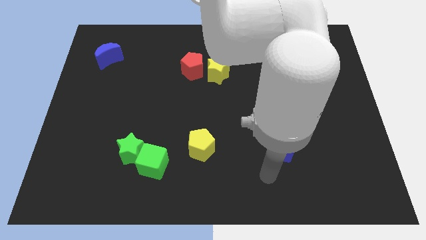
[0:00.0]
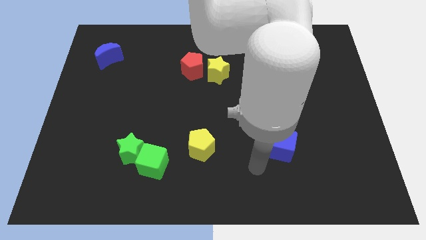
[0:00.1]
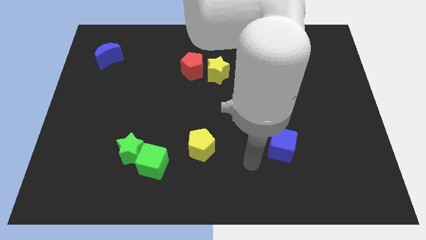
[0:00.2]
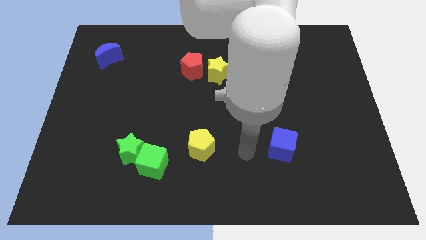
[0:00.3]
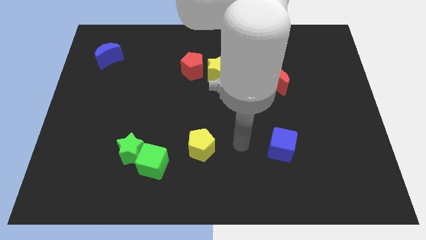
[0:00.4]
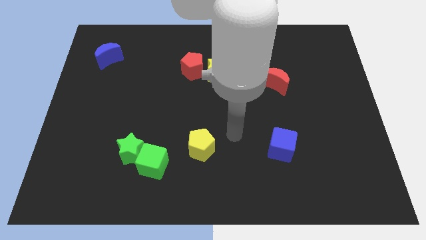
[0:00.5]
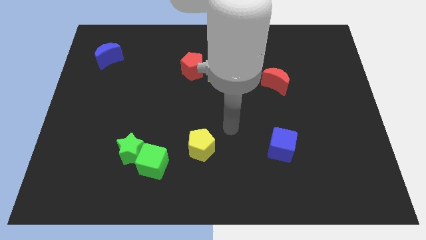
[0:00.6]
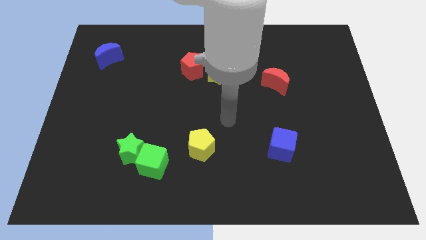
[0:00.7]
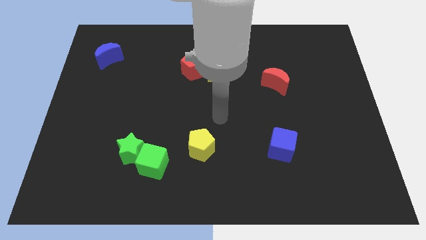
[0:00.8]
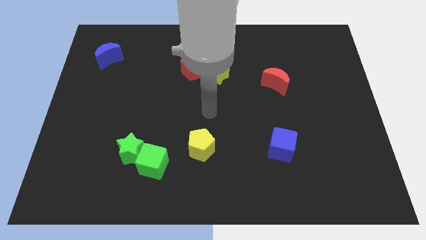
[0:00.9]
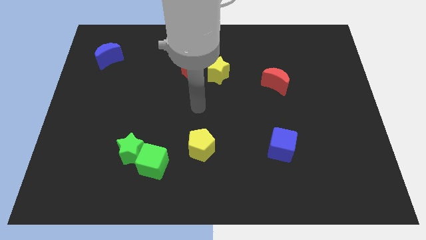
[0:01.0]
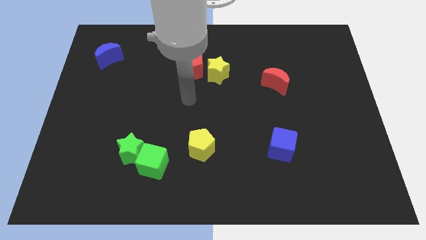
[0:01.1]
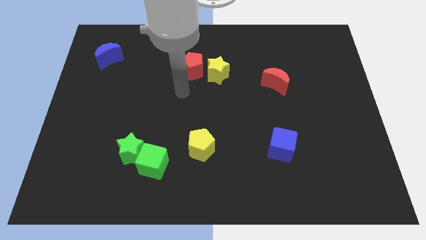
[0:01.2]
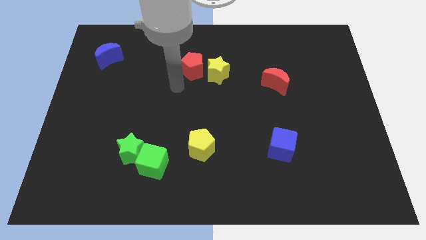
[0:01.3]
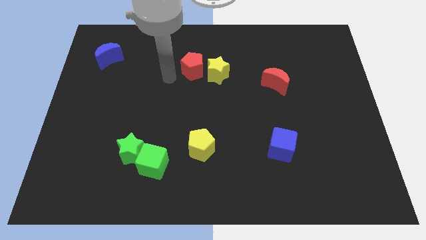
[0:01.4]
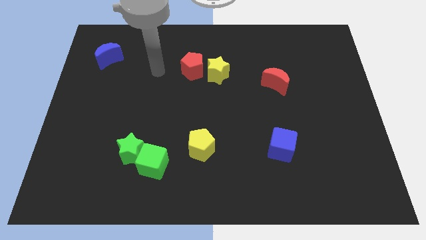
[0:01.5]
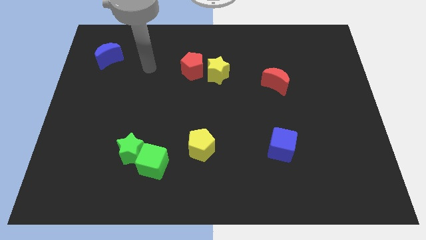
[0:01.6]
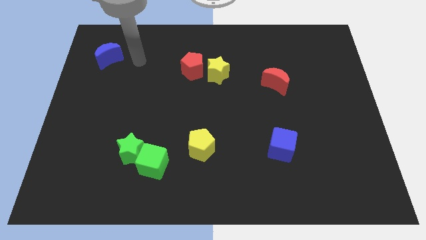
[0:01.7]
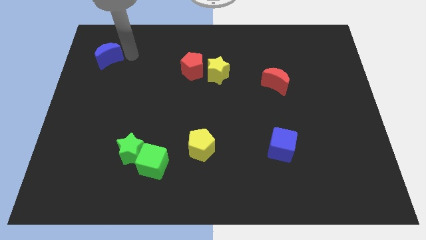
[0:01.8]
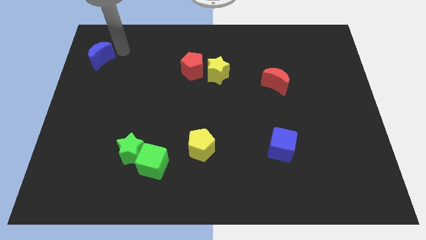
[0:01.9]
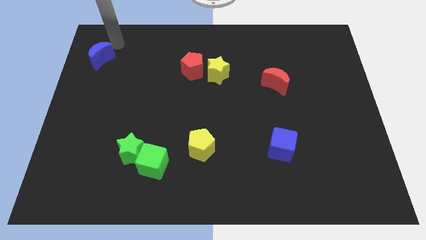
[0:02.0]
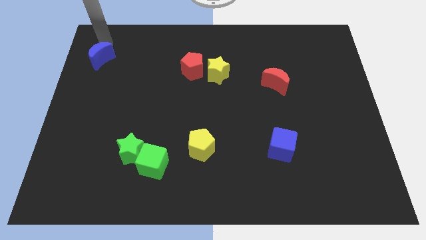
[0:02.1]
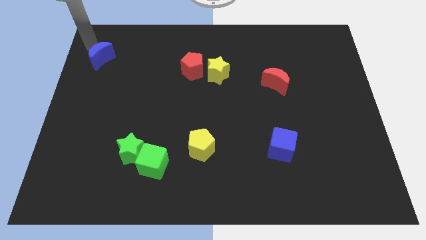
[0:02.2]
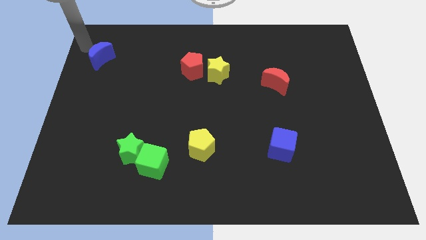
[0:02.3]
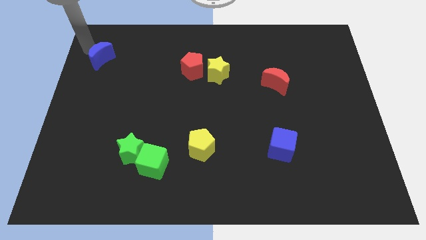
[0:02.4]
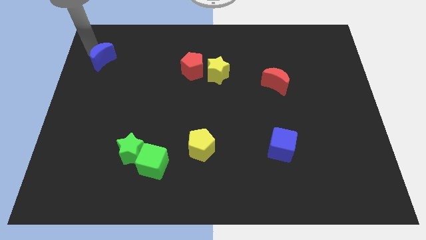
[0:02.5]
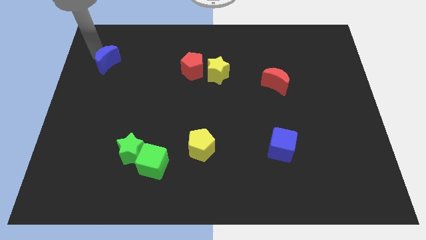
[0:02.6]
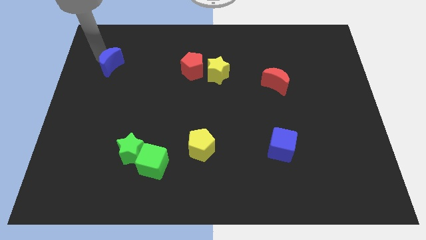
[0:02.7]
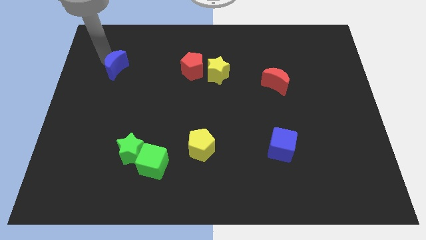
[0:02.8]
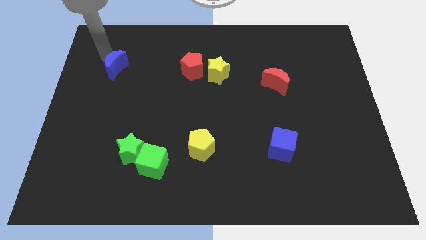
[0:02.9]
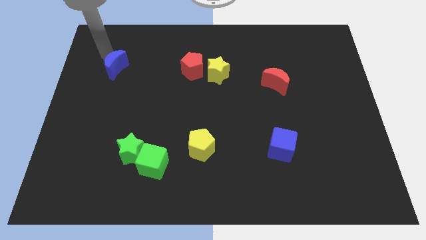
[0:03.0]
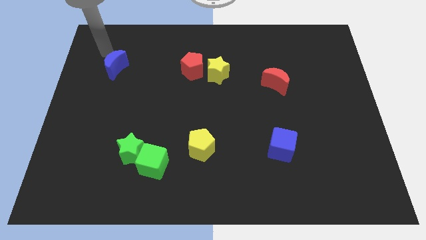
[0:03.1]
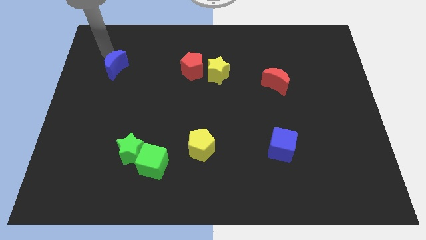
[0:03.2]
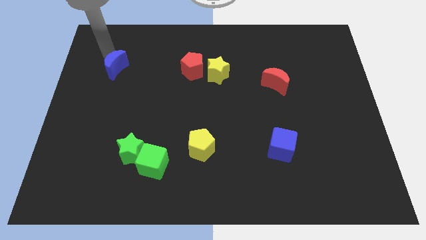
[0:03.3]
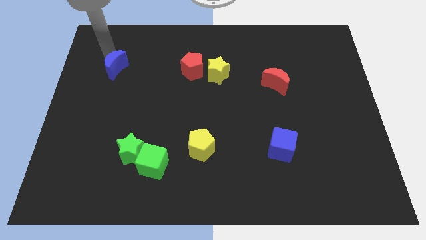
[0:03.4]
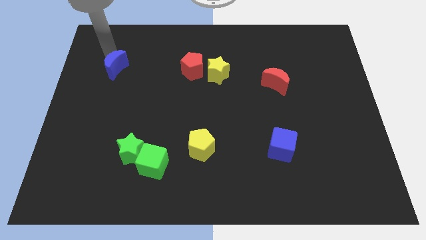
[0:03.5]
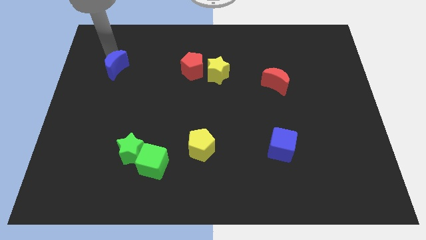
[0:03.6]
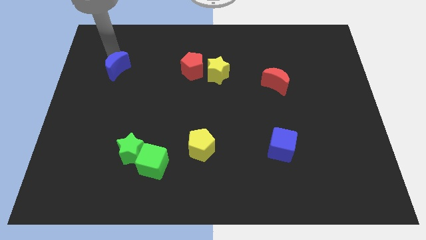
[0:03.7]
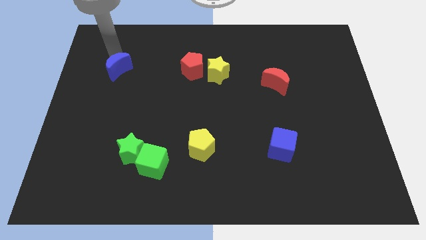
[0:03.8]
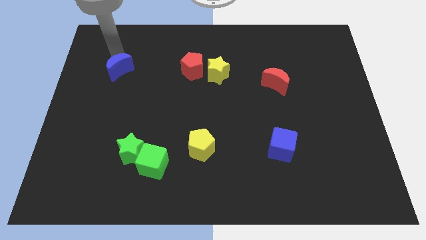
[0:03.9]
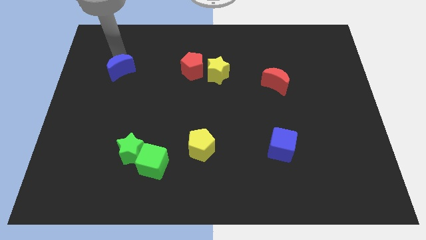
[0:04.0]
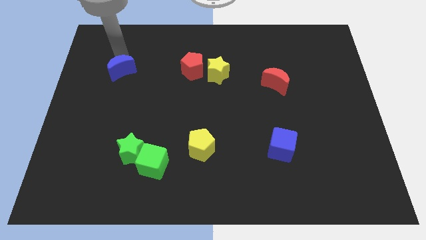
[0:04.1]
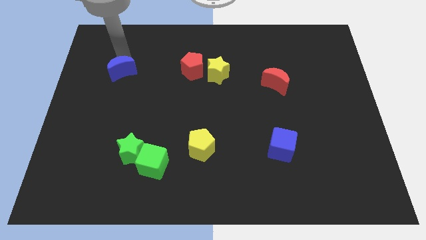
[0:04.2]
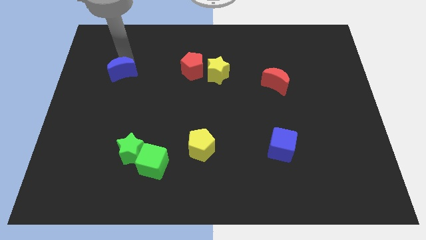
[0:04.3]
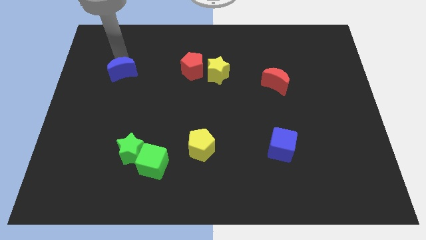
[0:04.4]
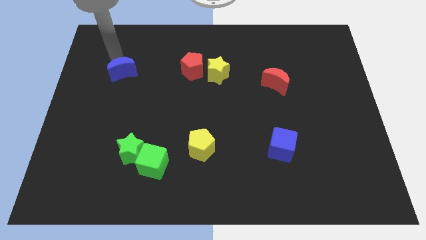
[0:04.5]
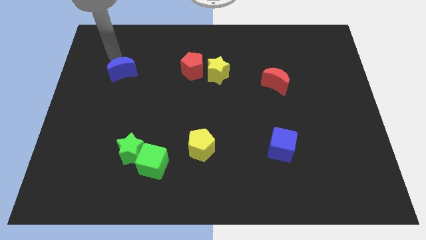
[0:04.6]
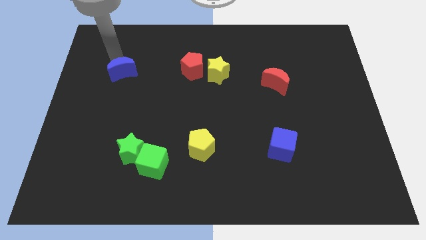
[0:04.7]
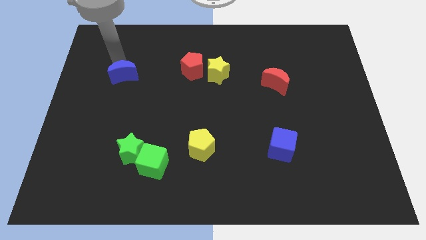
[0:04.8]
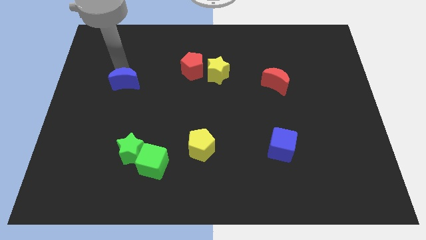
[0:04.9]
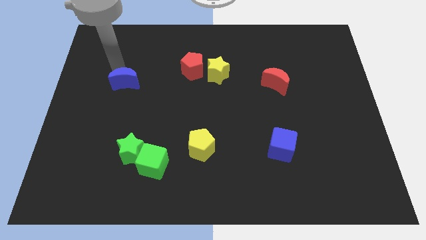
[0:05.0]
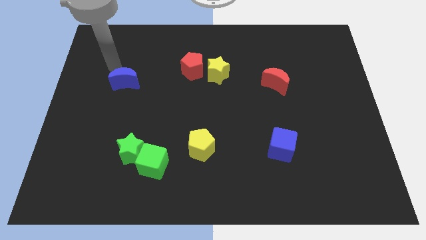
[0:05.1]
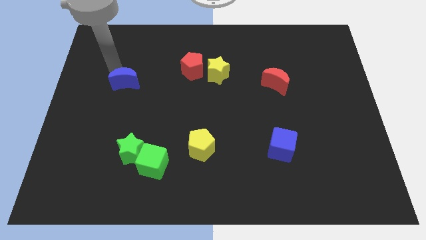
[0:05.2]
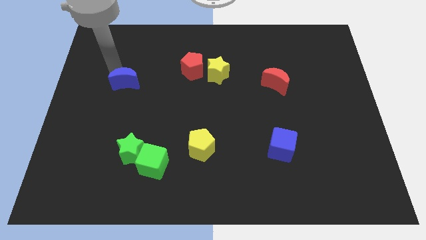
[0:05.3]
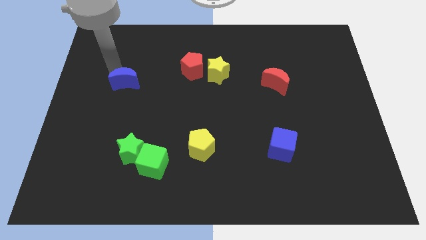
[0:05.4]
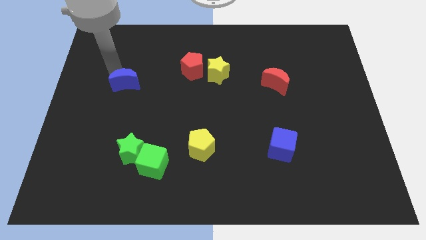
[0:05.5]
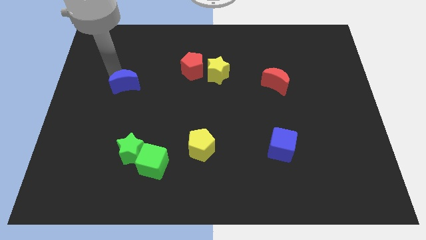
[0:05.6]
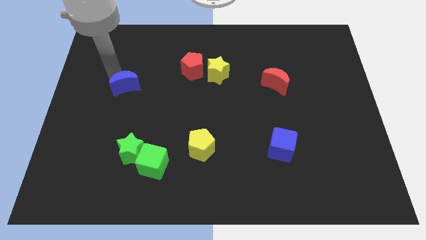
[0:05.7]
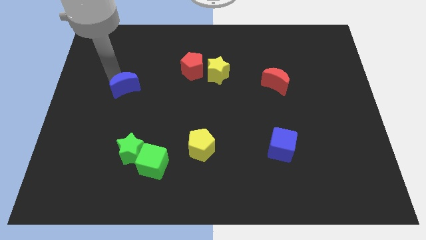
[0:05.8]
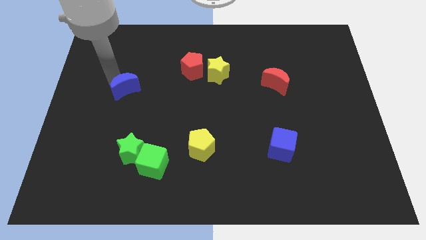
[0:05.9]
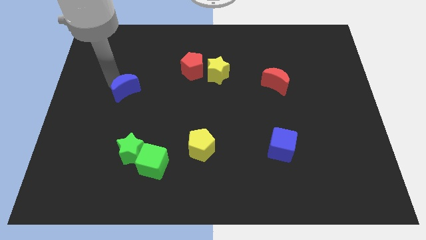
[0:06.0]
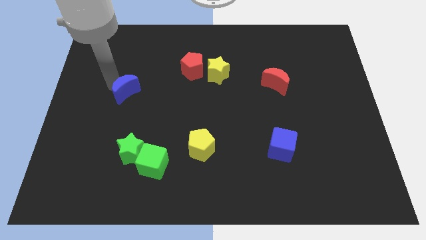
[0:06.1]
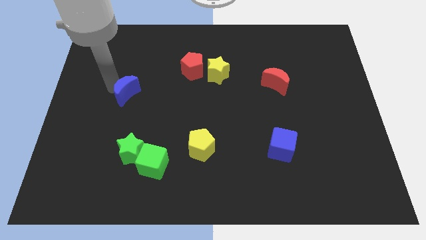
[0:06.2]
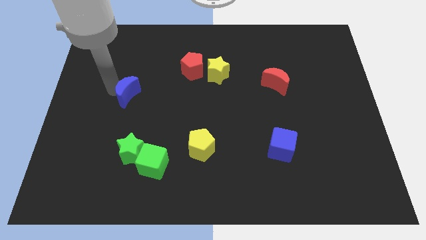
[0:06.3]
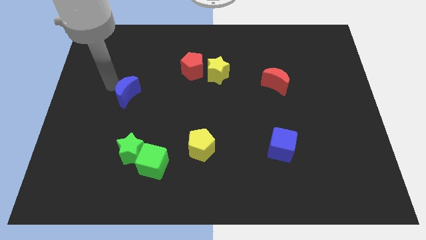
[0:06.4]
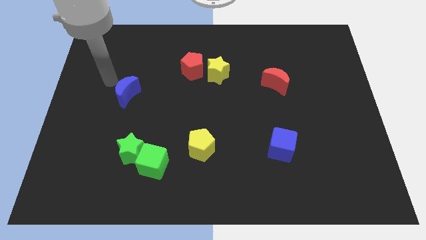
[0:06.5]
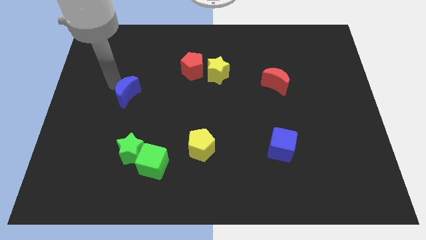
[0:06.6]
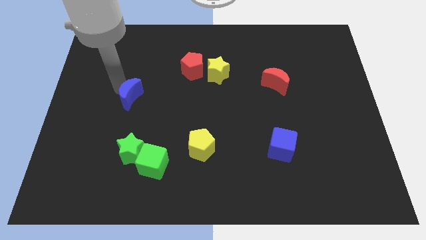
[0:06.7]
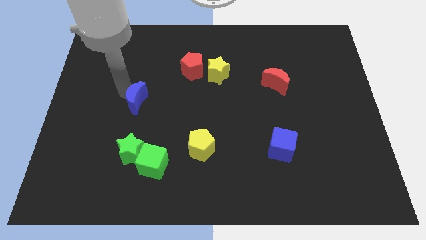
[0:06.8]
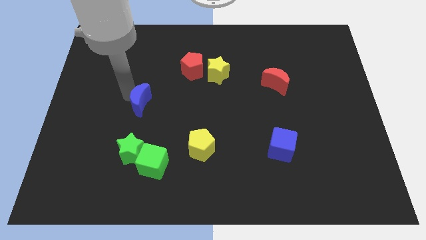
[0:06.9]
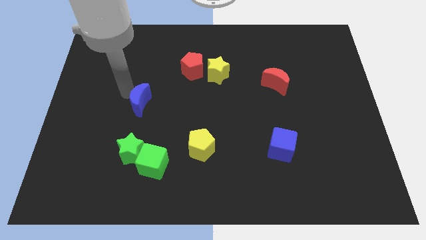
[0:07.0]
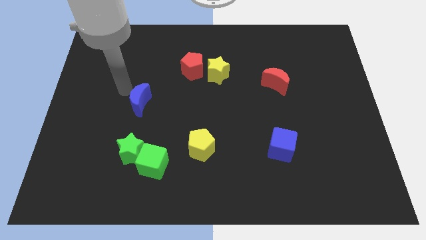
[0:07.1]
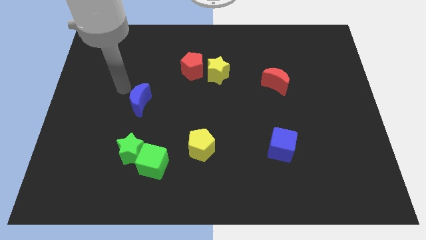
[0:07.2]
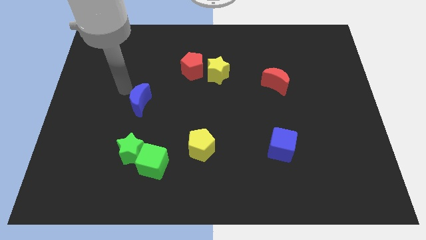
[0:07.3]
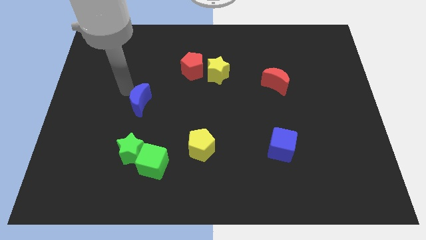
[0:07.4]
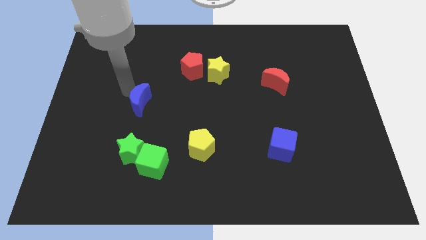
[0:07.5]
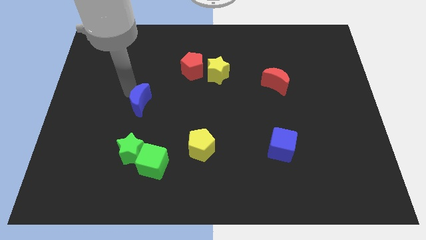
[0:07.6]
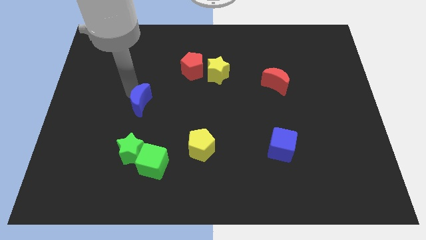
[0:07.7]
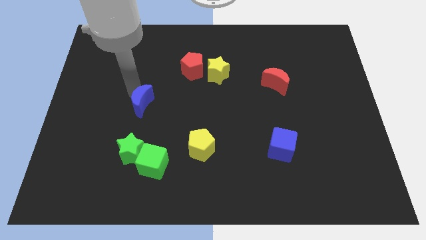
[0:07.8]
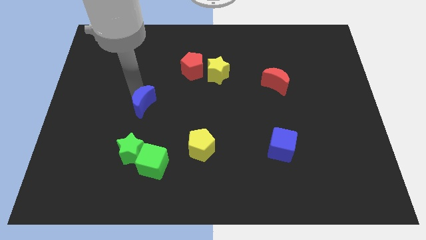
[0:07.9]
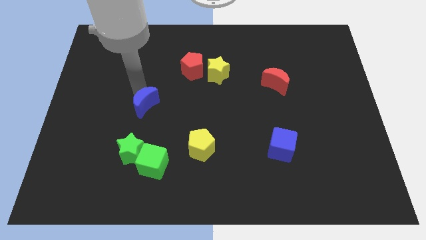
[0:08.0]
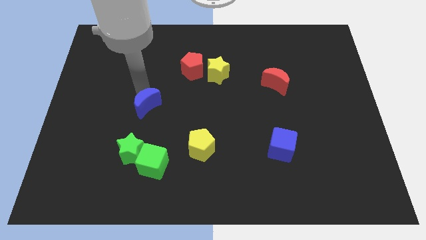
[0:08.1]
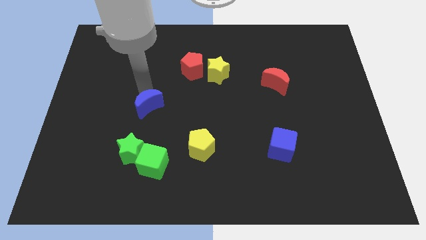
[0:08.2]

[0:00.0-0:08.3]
move the blue moon downwards and right
